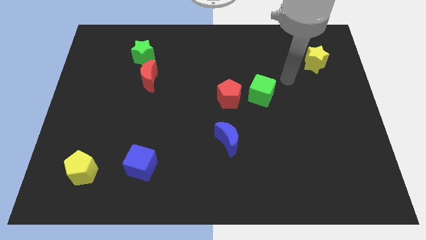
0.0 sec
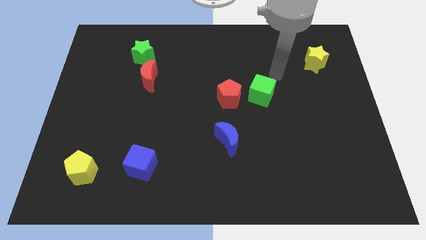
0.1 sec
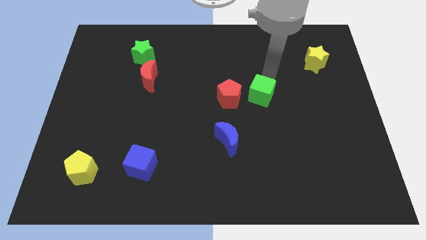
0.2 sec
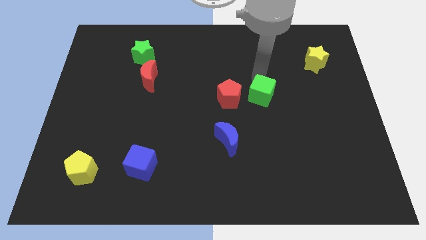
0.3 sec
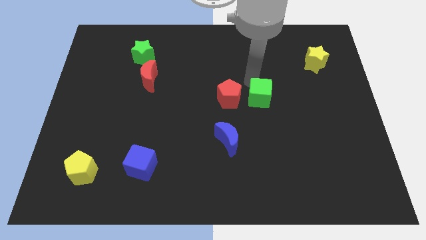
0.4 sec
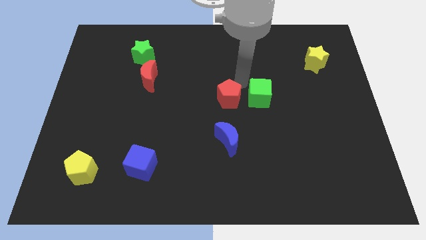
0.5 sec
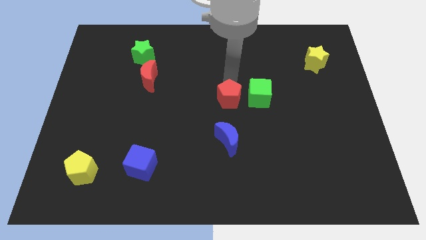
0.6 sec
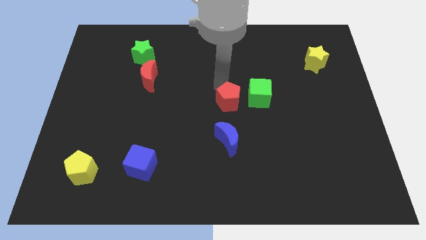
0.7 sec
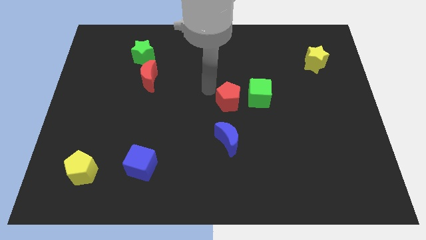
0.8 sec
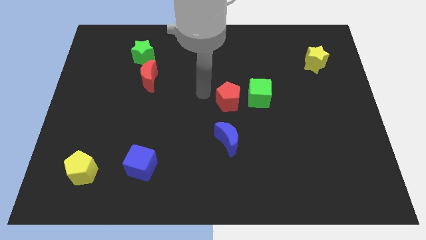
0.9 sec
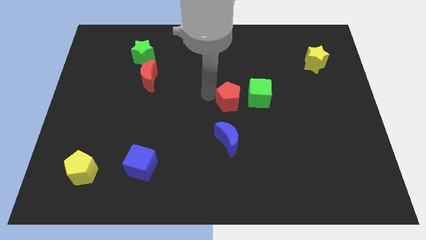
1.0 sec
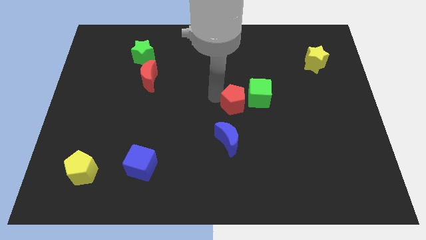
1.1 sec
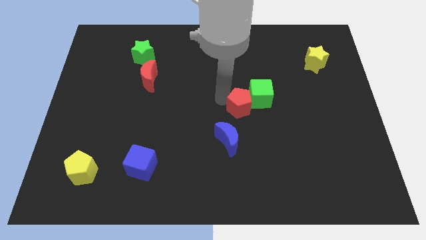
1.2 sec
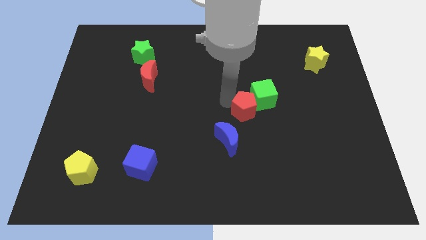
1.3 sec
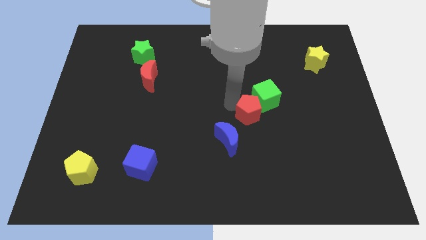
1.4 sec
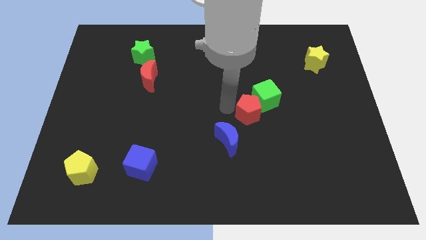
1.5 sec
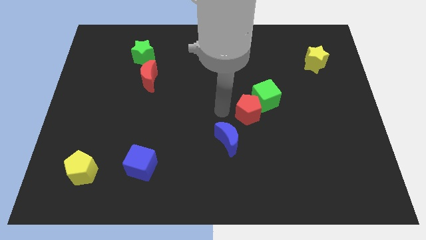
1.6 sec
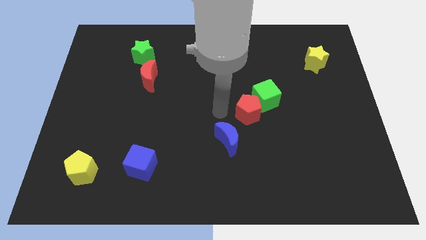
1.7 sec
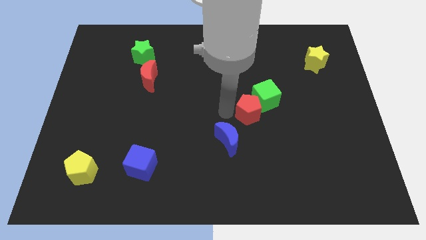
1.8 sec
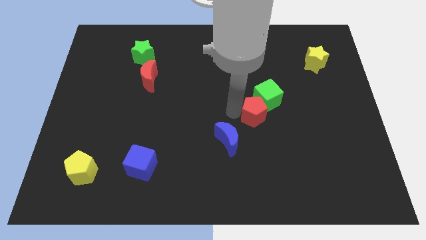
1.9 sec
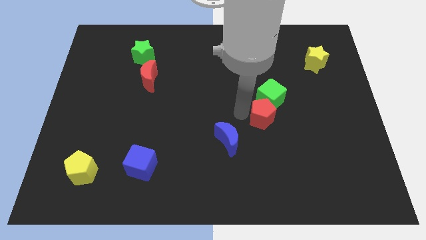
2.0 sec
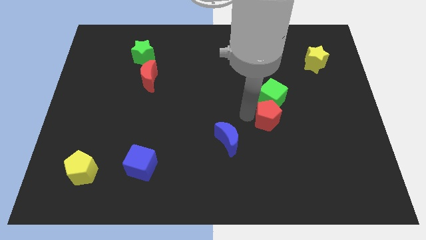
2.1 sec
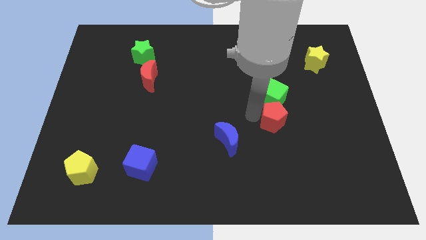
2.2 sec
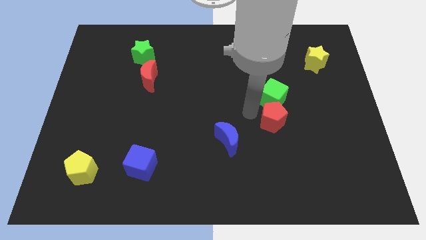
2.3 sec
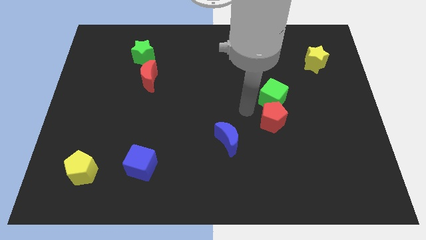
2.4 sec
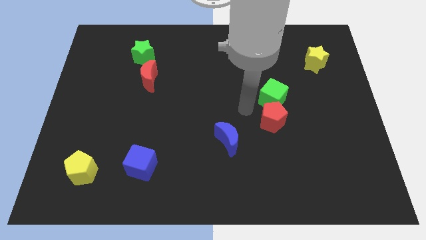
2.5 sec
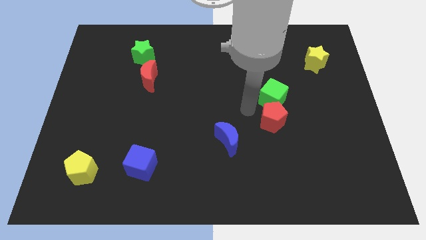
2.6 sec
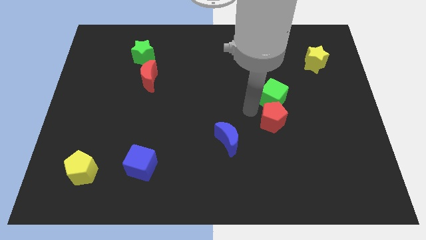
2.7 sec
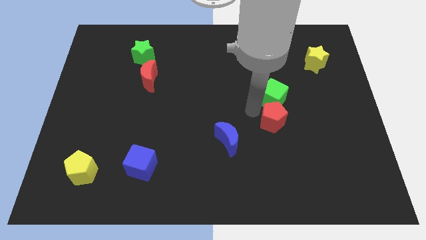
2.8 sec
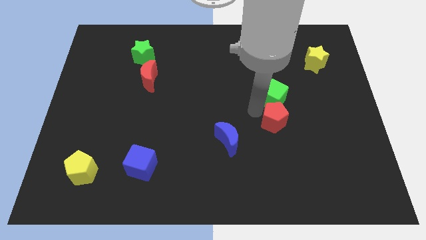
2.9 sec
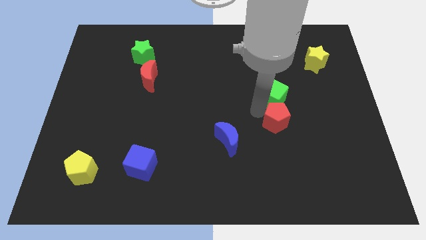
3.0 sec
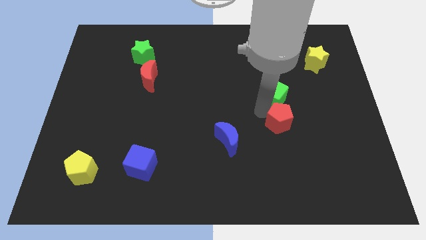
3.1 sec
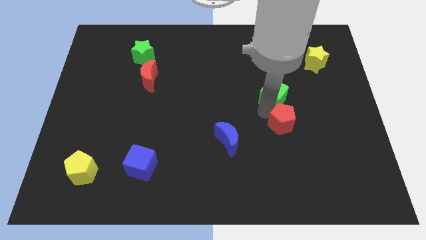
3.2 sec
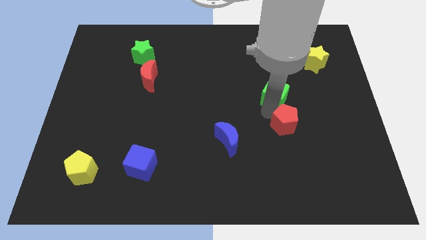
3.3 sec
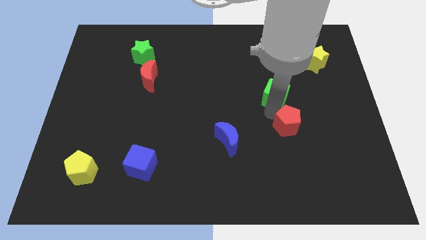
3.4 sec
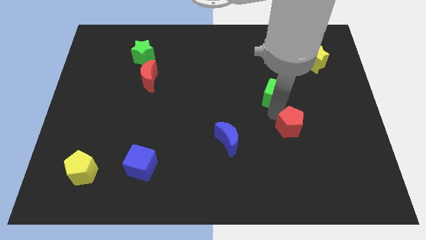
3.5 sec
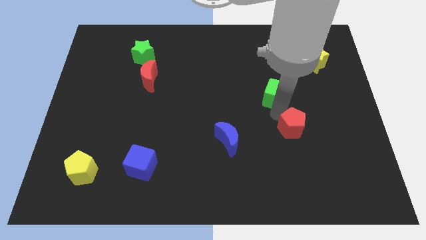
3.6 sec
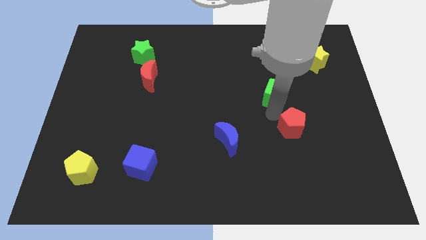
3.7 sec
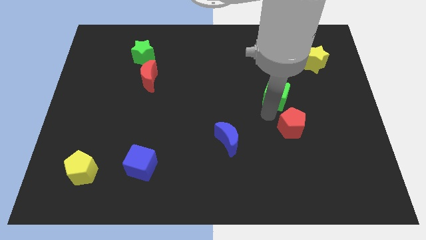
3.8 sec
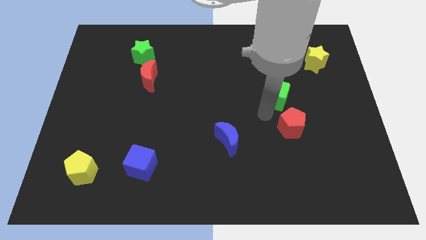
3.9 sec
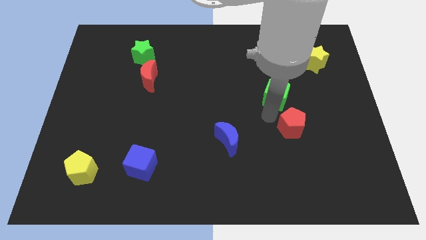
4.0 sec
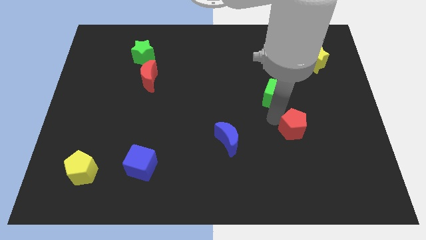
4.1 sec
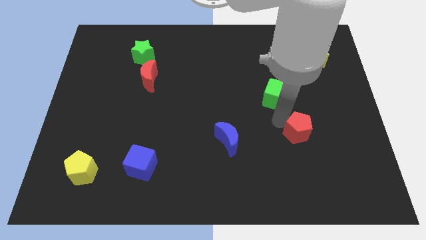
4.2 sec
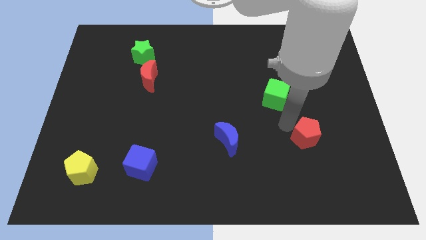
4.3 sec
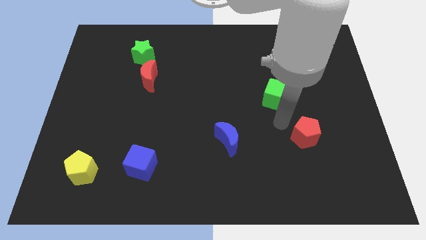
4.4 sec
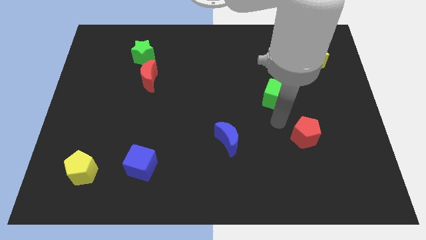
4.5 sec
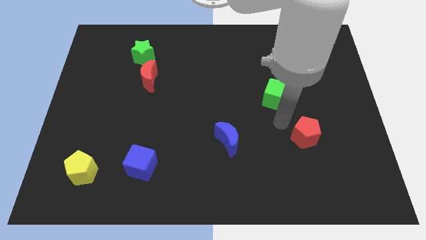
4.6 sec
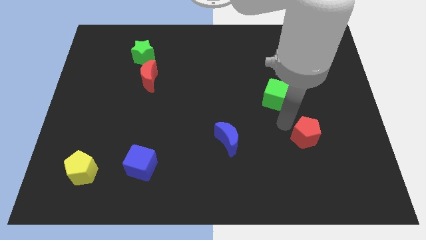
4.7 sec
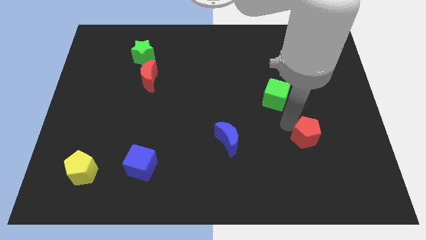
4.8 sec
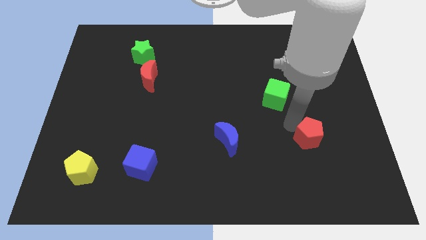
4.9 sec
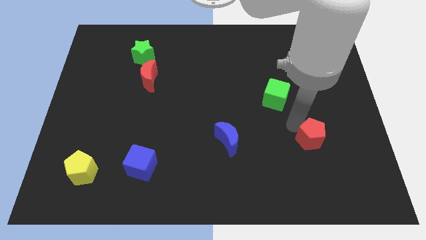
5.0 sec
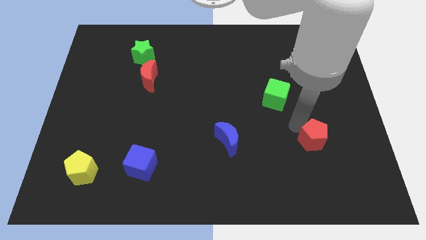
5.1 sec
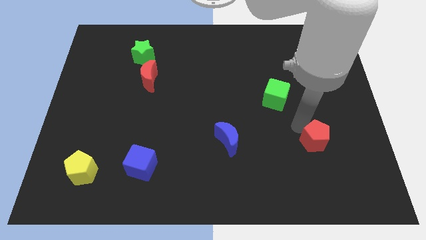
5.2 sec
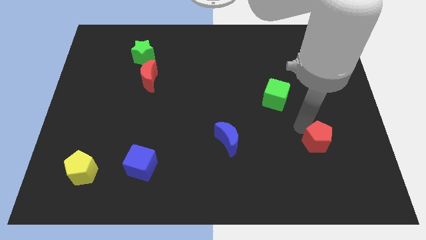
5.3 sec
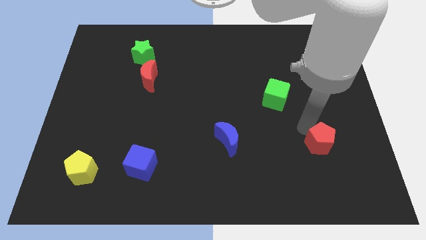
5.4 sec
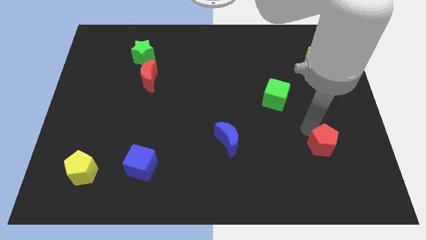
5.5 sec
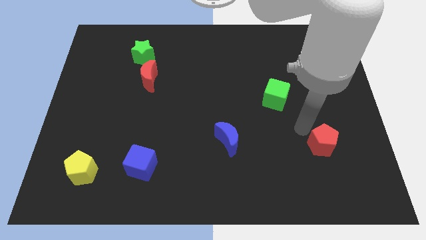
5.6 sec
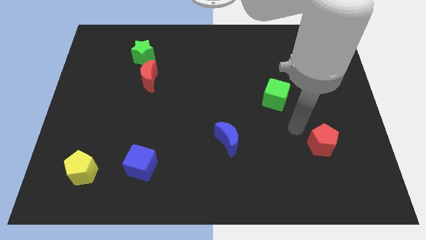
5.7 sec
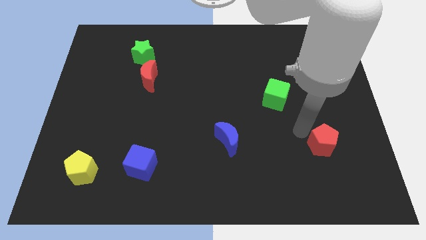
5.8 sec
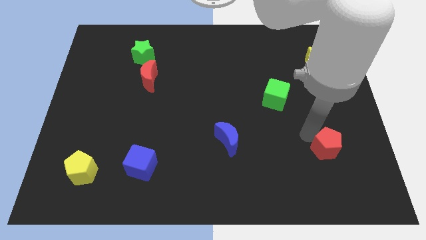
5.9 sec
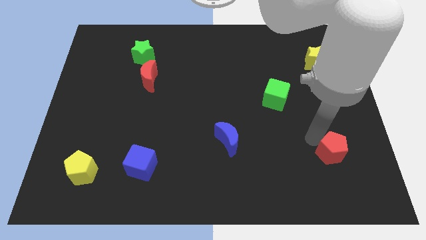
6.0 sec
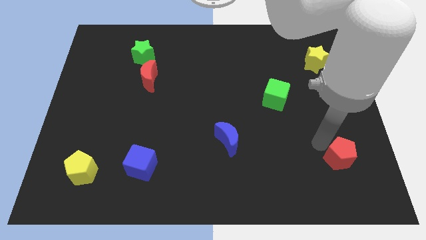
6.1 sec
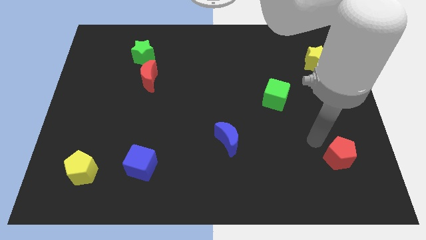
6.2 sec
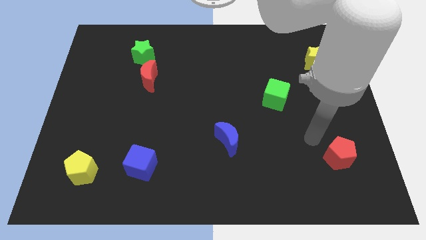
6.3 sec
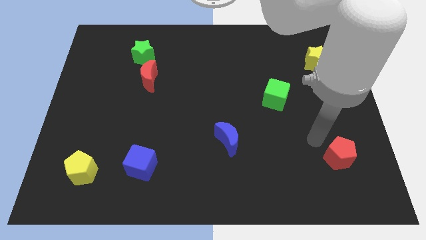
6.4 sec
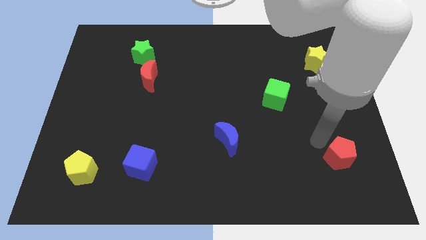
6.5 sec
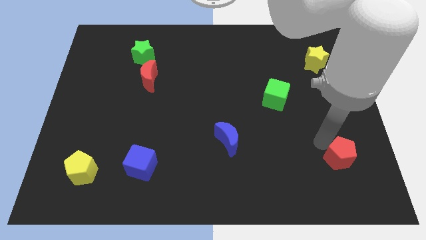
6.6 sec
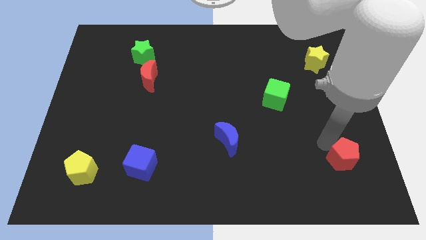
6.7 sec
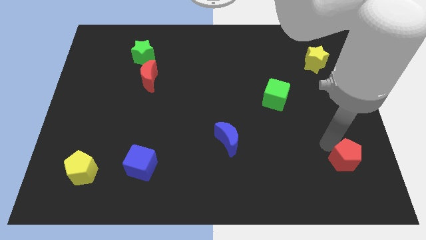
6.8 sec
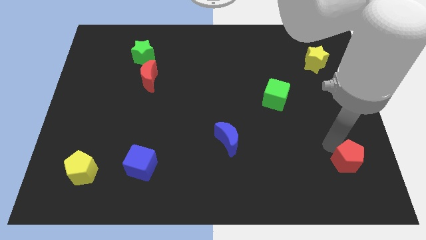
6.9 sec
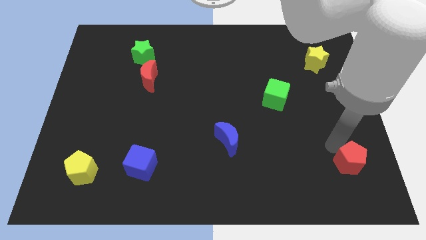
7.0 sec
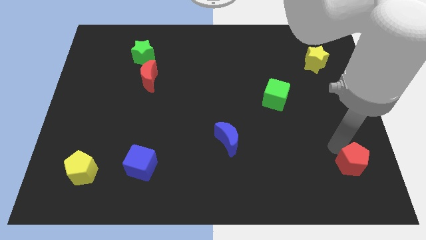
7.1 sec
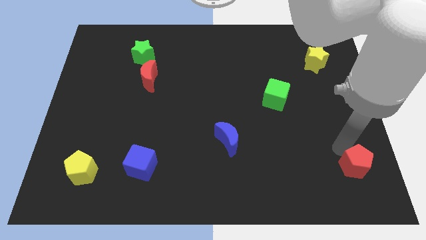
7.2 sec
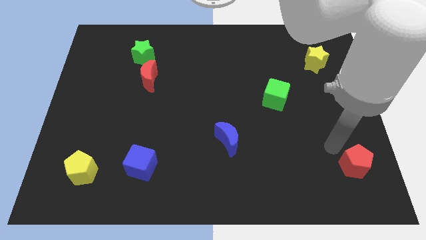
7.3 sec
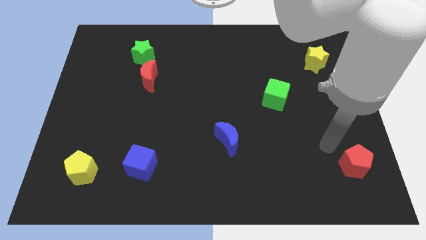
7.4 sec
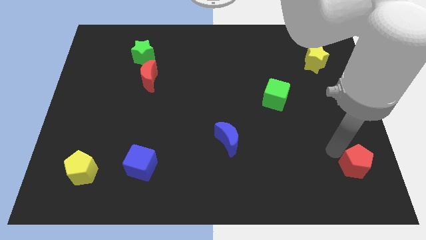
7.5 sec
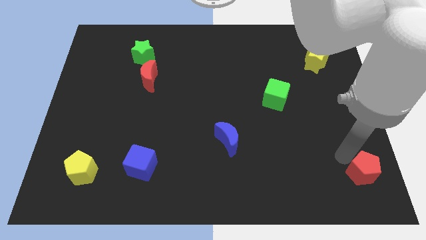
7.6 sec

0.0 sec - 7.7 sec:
put the red pentagon to the bottom right corner
